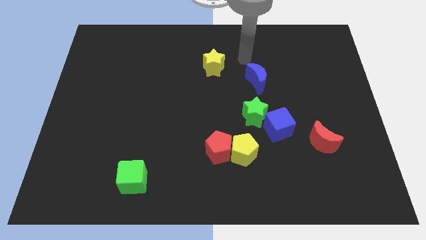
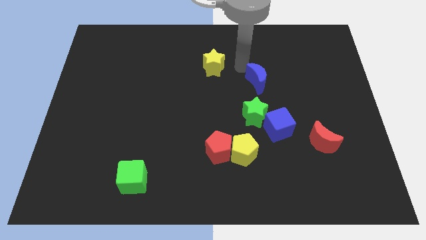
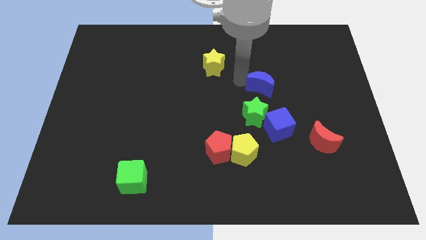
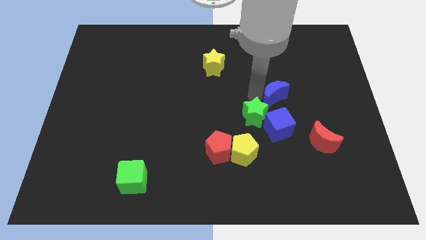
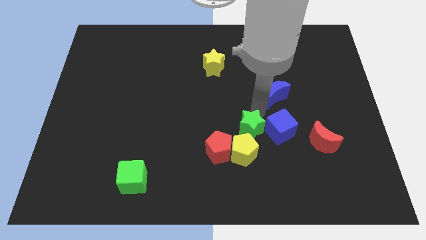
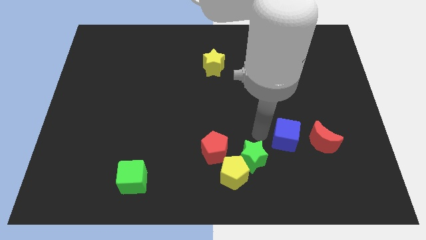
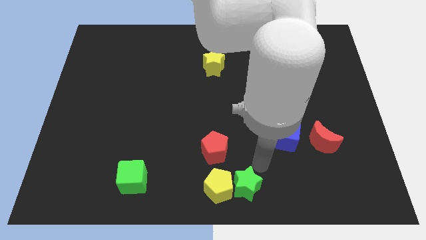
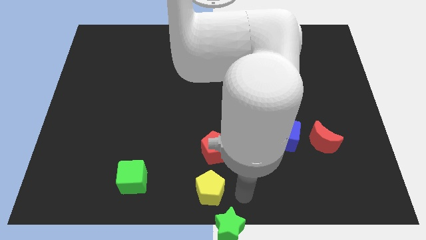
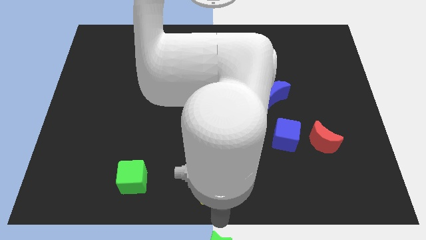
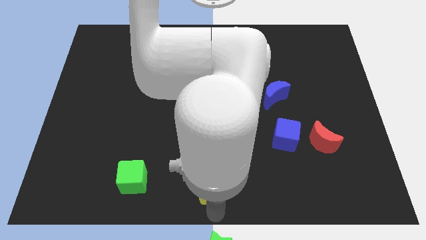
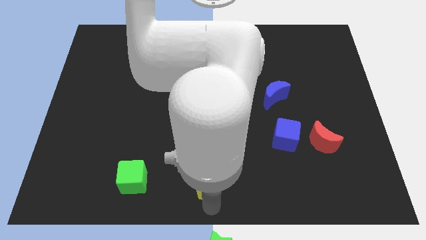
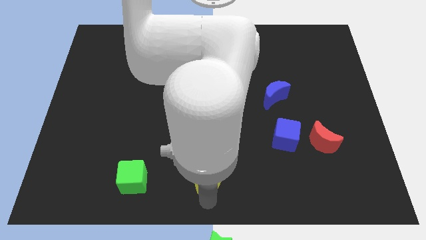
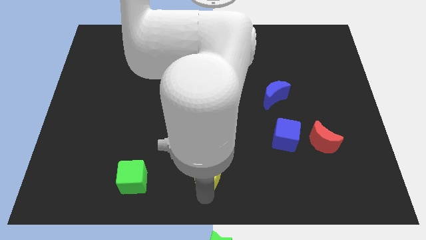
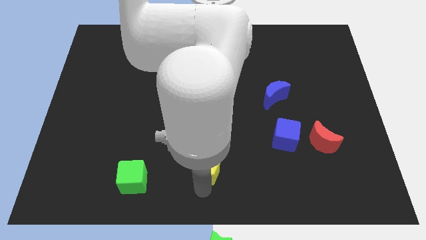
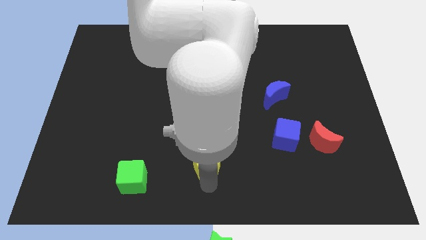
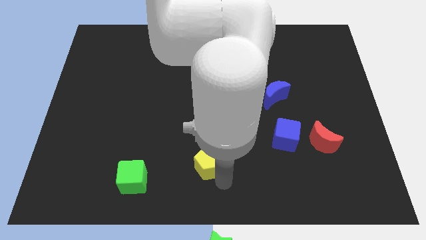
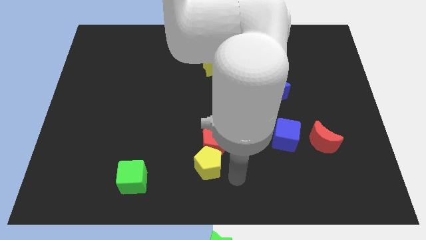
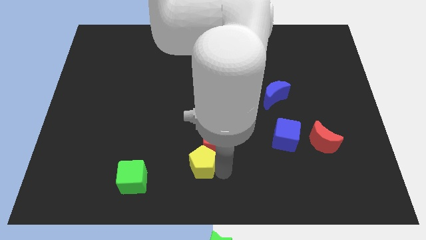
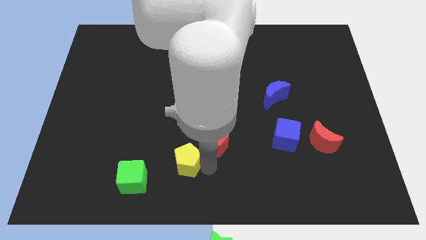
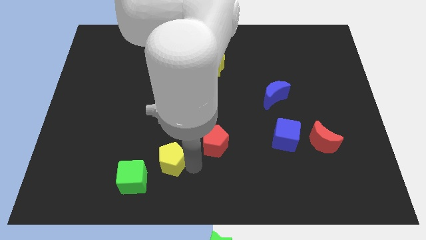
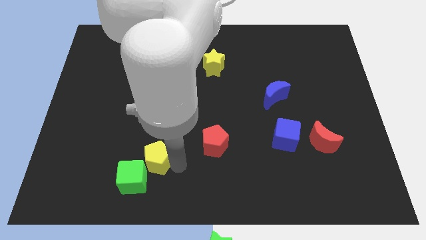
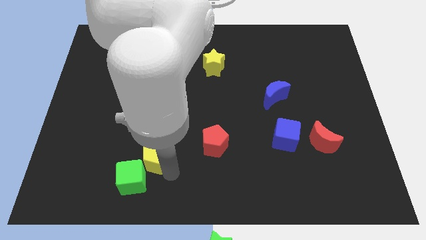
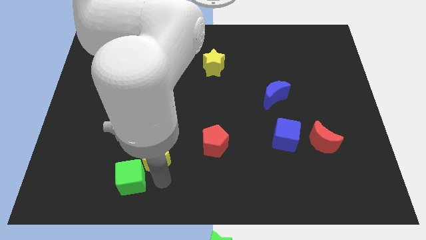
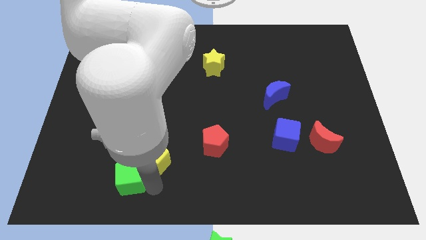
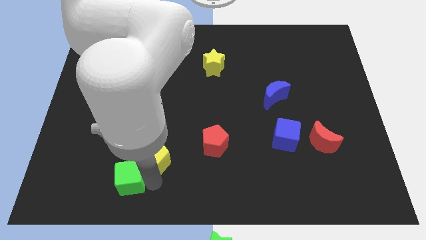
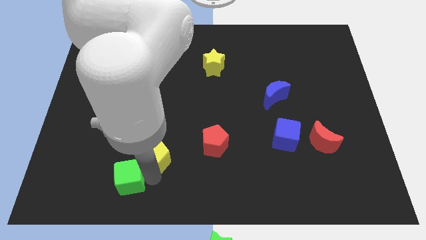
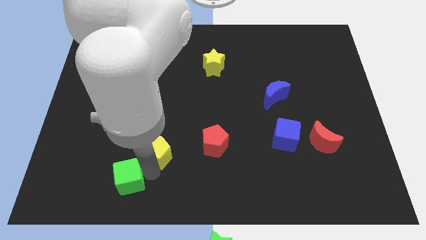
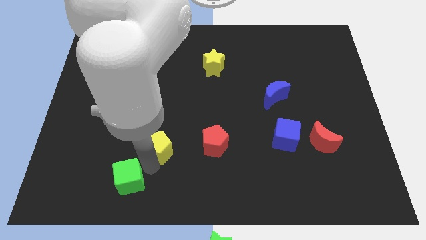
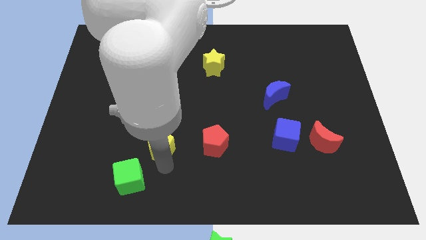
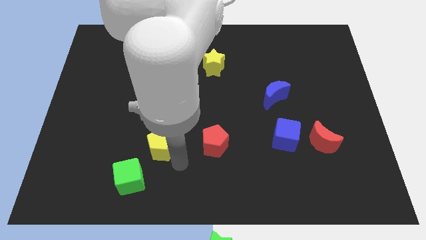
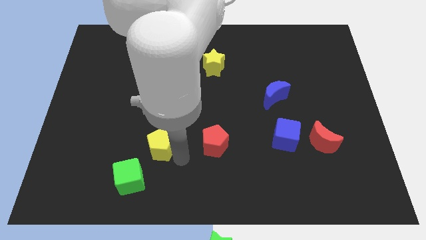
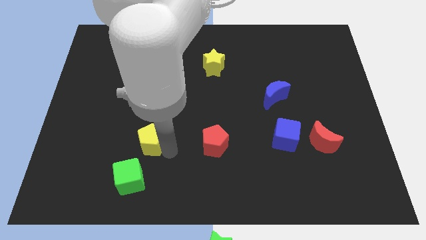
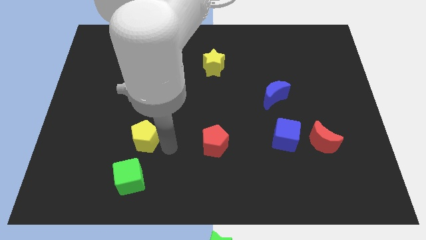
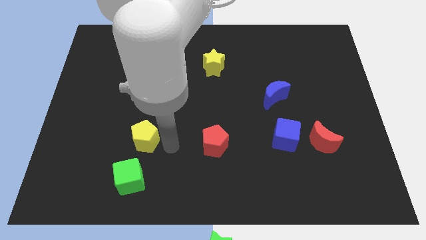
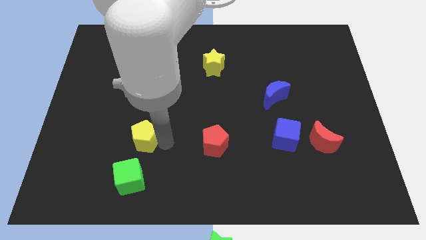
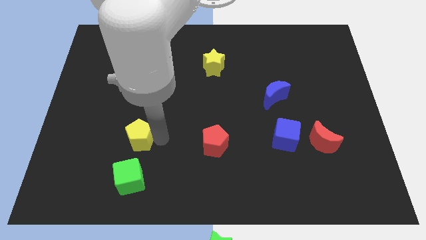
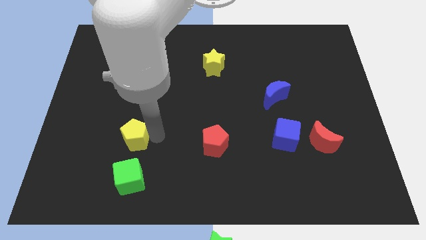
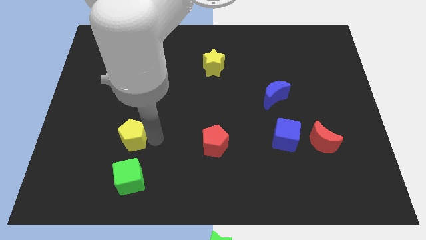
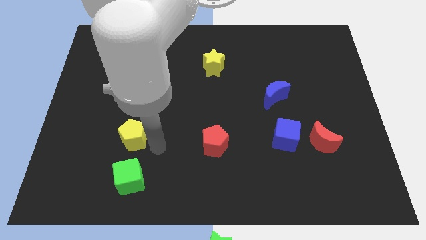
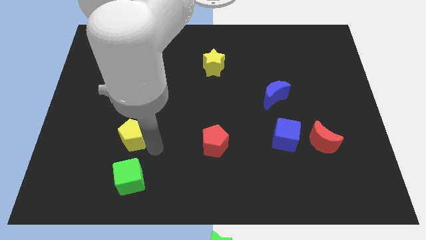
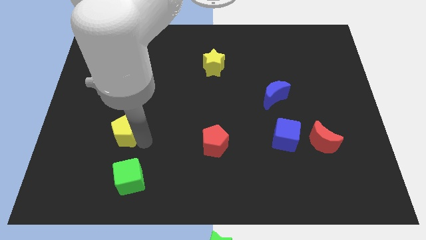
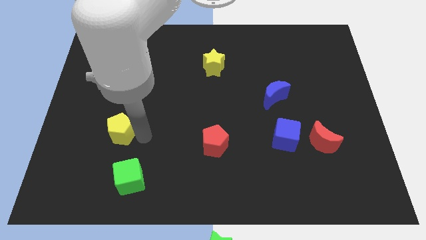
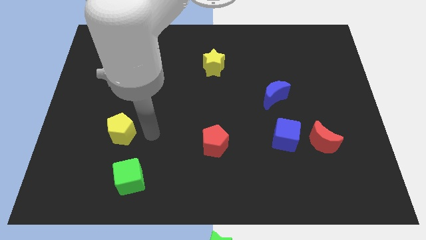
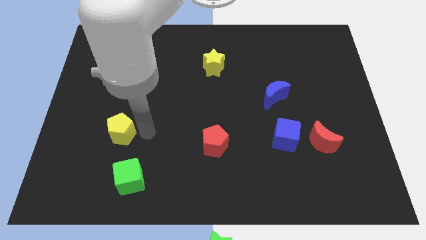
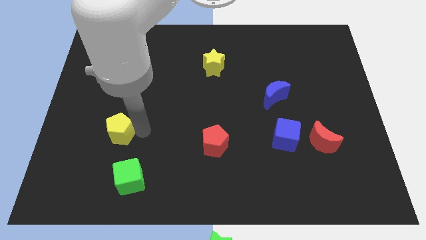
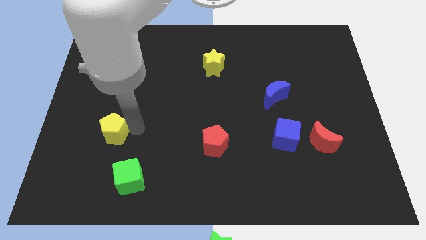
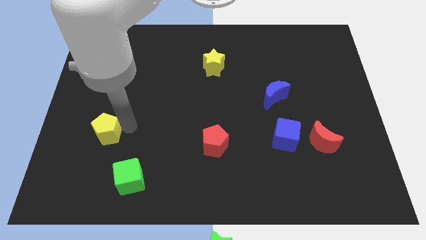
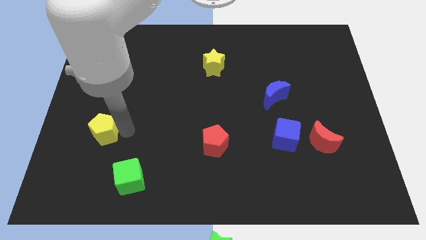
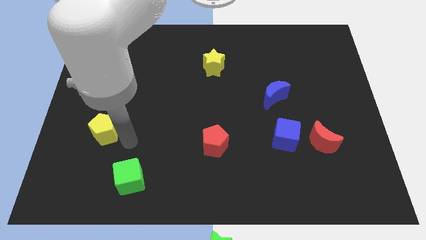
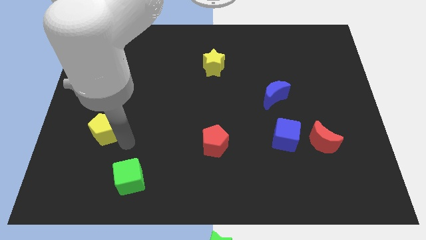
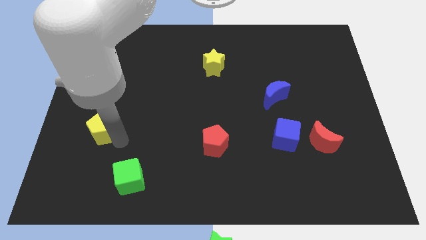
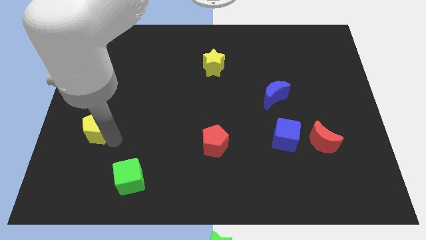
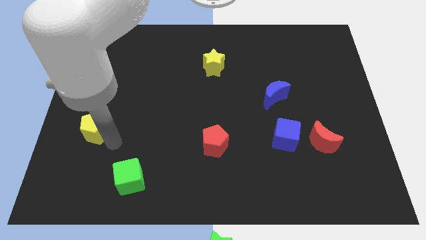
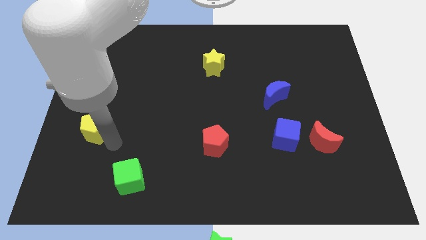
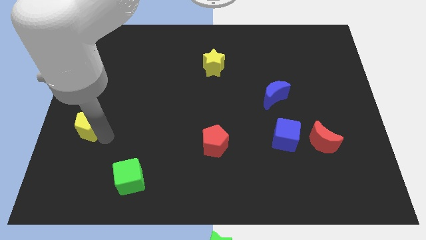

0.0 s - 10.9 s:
put the yellow pentagon to the center left

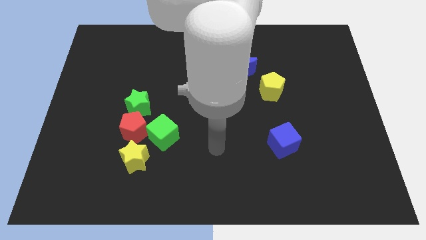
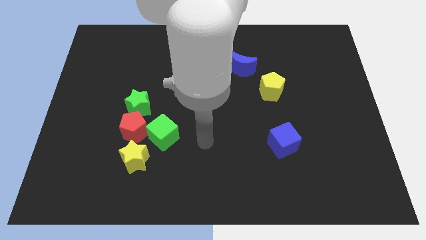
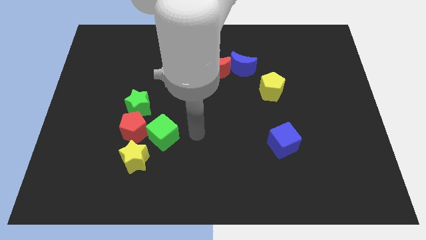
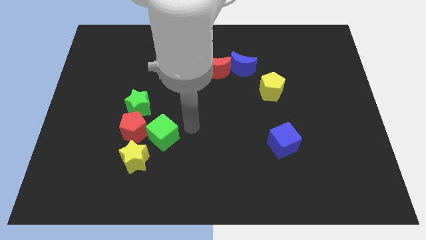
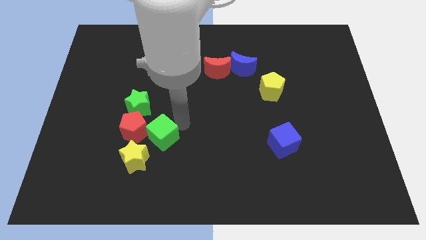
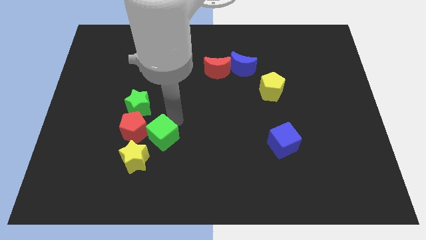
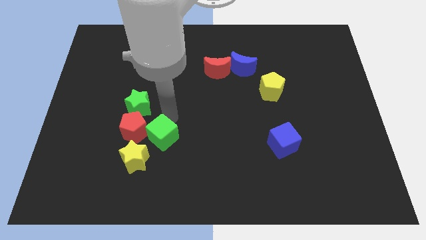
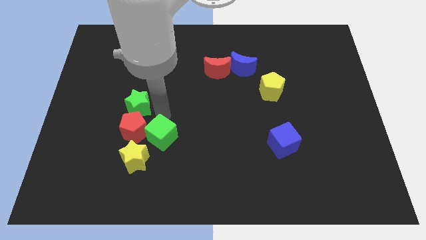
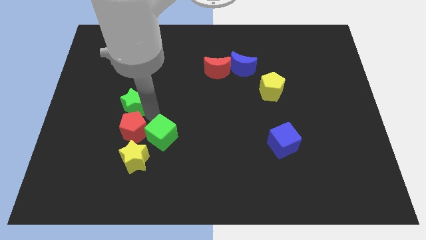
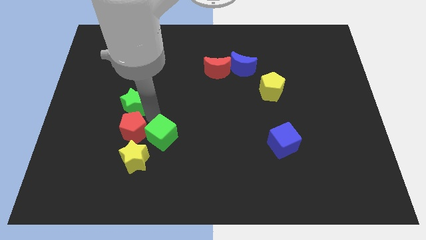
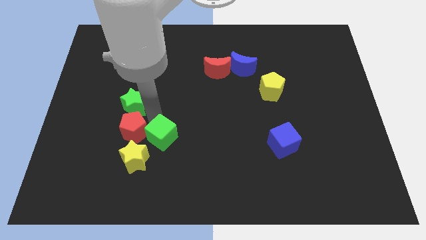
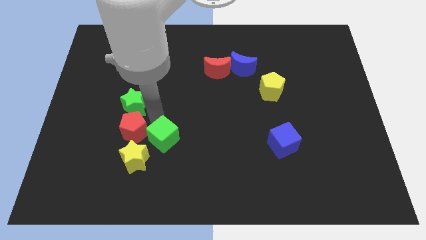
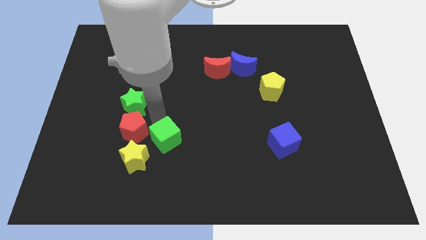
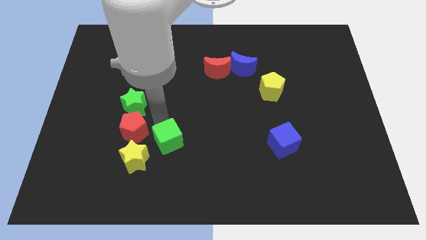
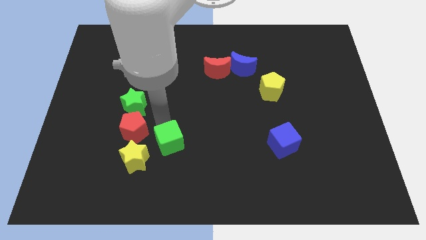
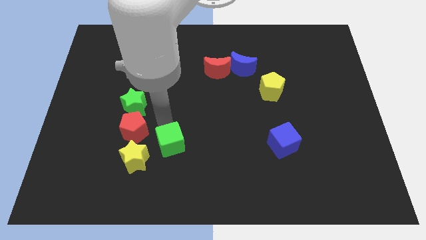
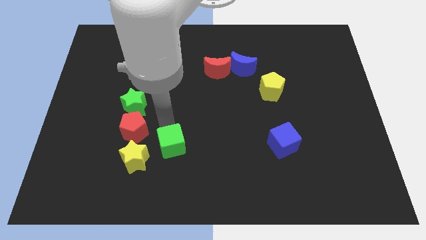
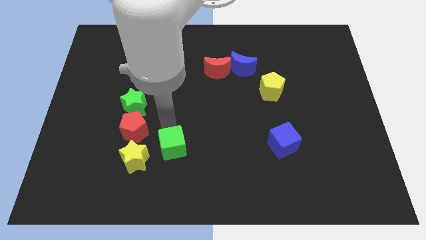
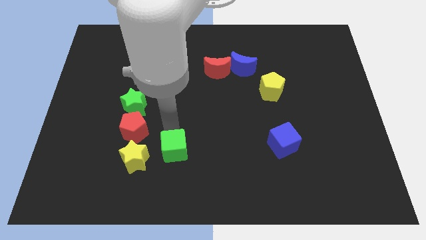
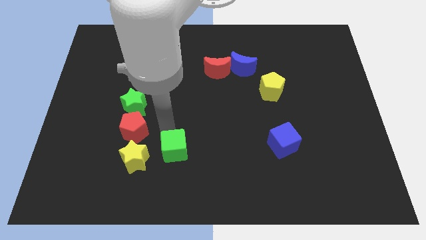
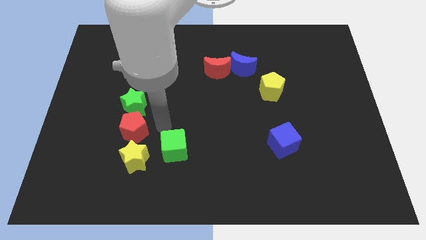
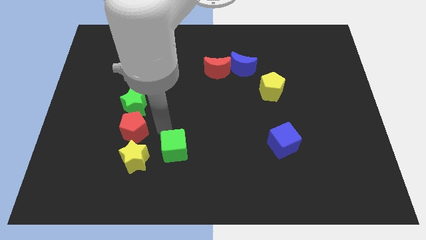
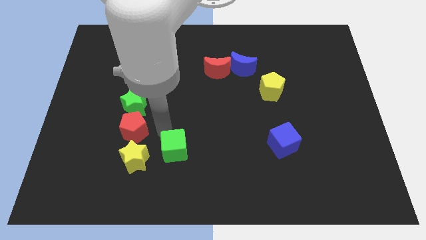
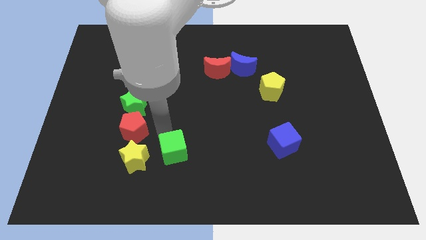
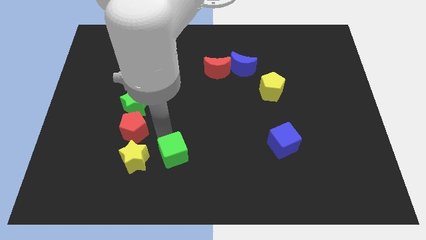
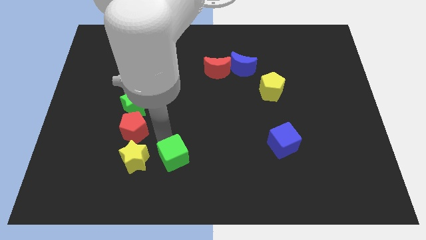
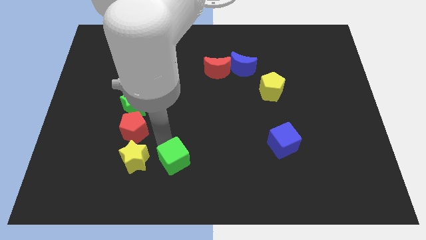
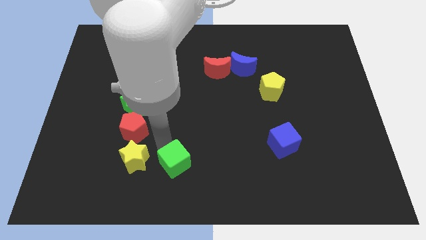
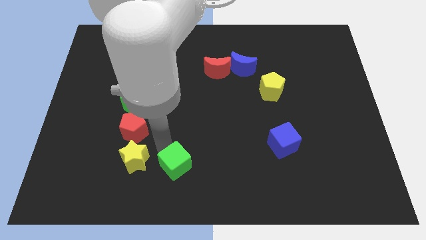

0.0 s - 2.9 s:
slide the green cube to the bottom
